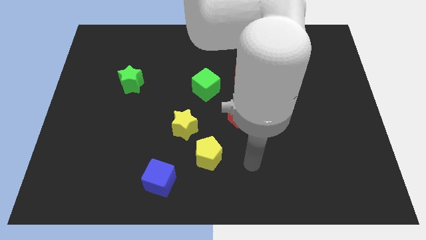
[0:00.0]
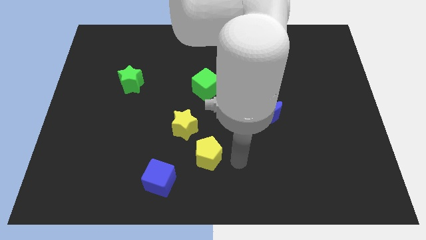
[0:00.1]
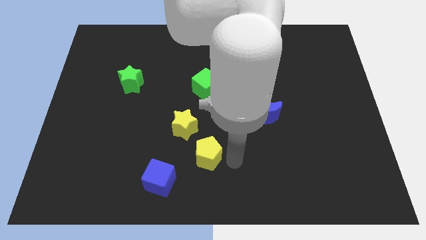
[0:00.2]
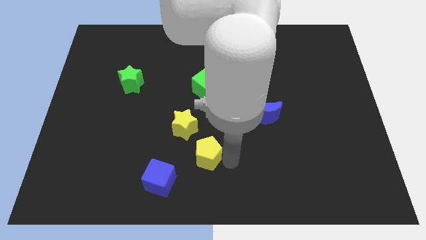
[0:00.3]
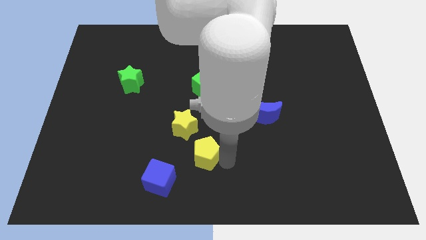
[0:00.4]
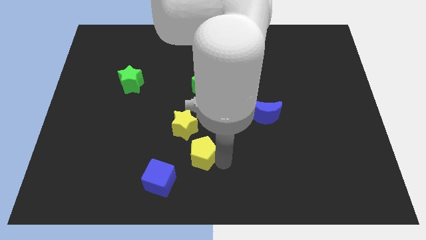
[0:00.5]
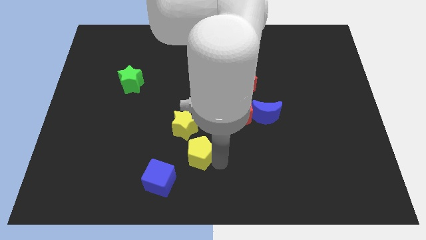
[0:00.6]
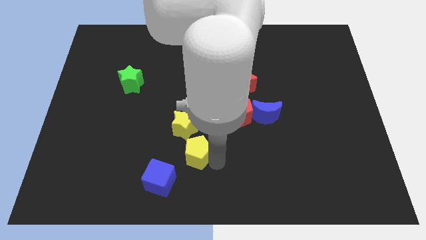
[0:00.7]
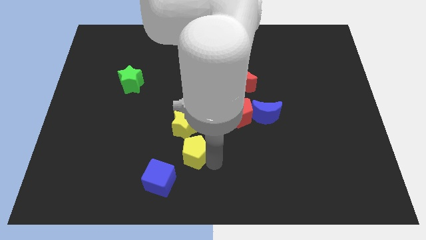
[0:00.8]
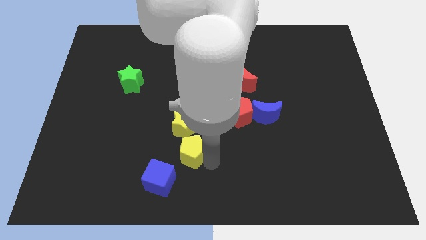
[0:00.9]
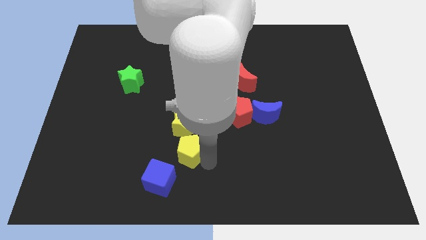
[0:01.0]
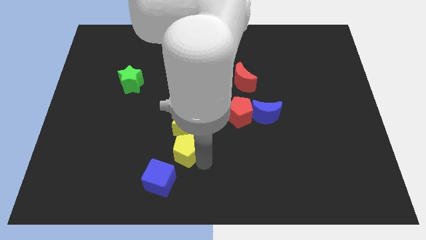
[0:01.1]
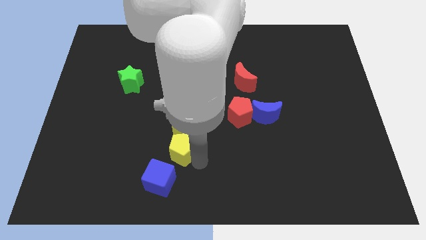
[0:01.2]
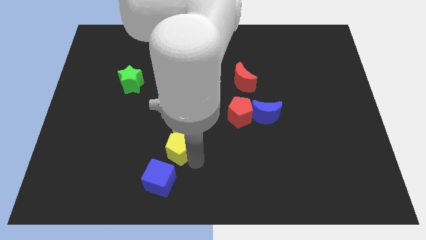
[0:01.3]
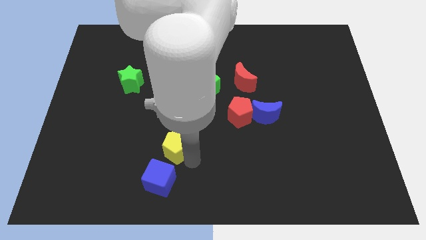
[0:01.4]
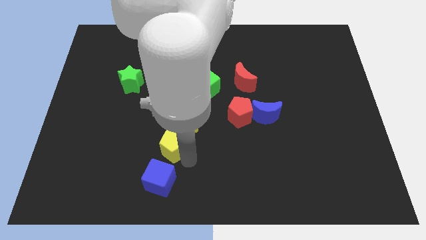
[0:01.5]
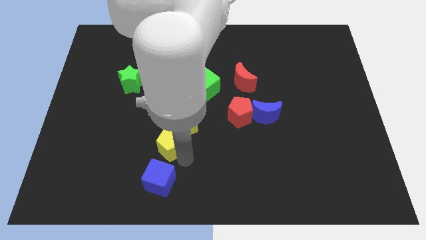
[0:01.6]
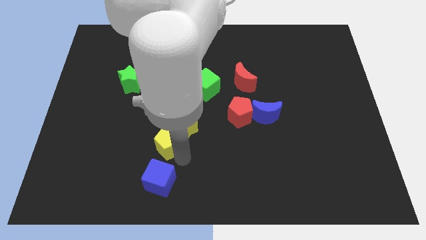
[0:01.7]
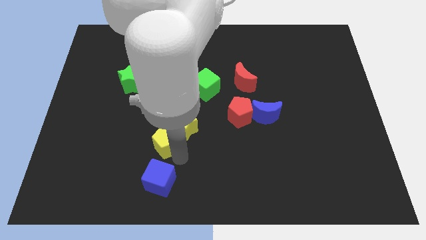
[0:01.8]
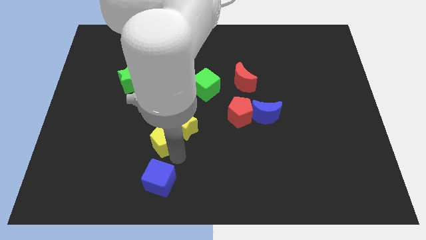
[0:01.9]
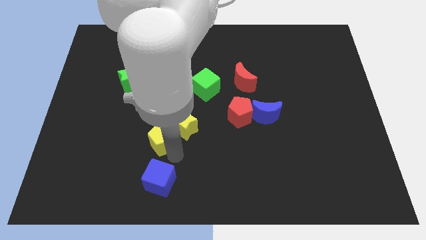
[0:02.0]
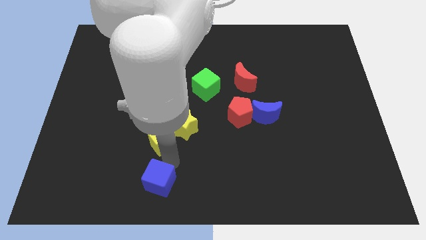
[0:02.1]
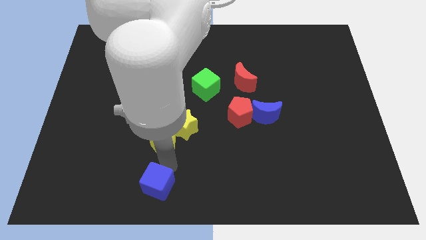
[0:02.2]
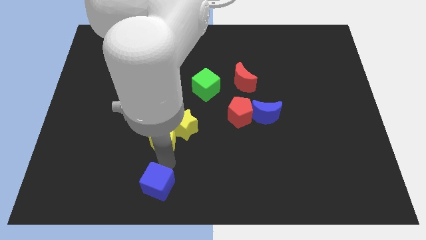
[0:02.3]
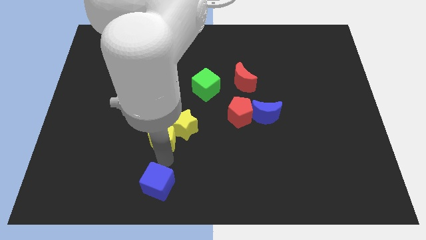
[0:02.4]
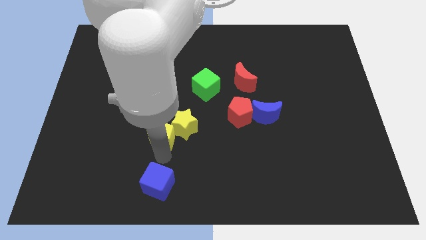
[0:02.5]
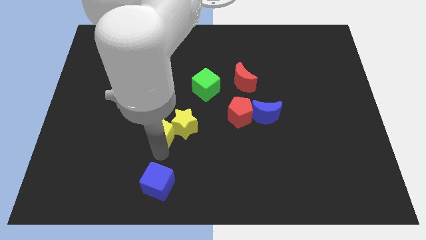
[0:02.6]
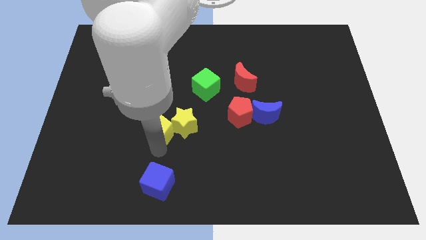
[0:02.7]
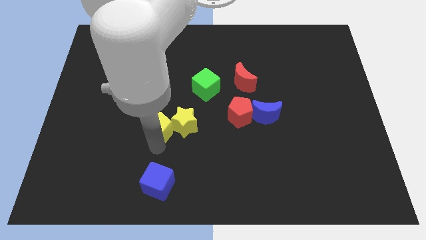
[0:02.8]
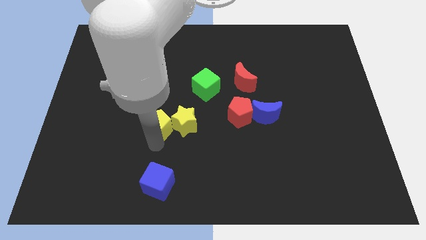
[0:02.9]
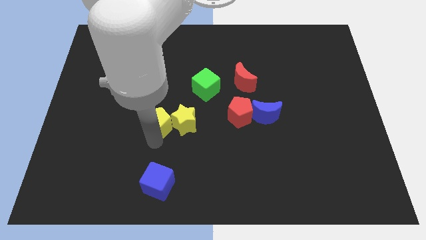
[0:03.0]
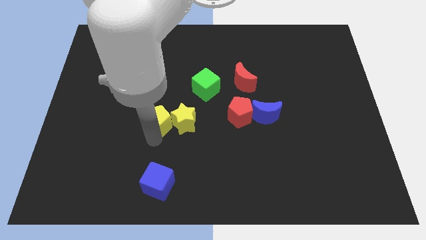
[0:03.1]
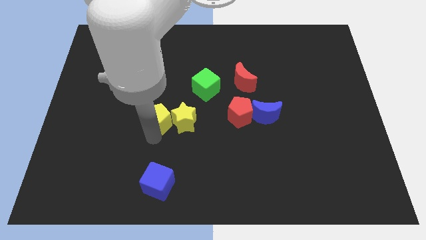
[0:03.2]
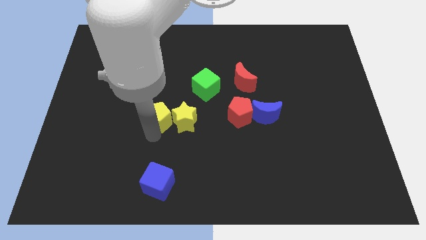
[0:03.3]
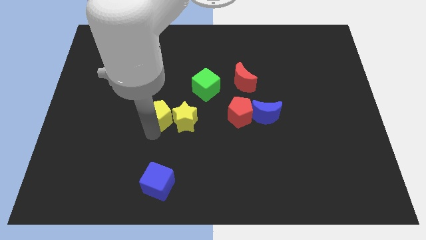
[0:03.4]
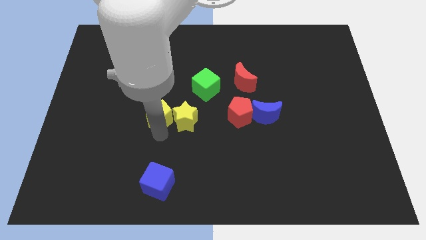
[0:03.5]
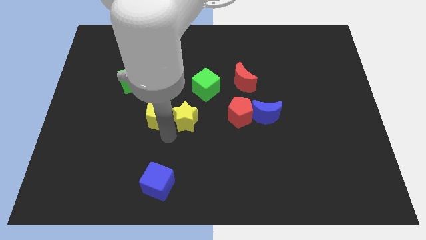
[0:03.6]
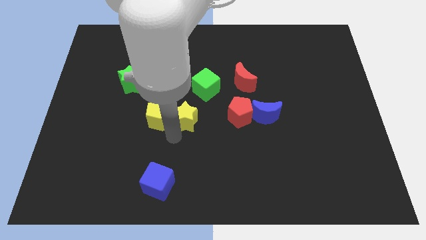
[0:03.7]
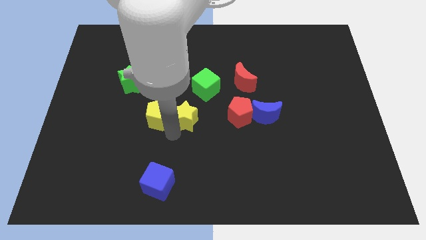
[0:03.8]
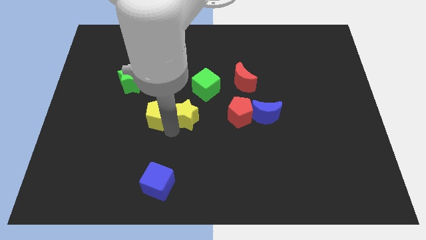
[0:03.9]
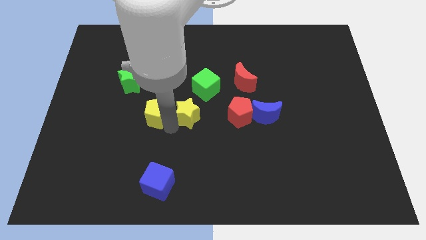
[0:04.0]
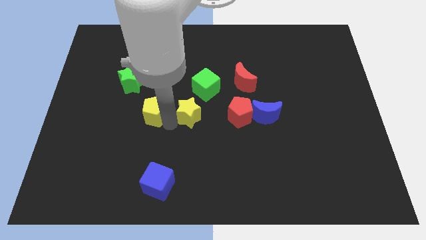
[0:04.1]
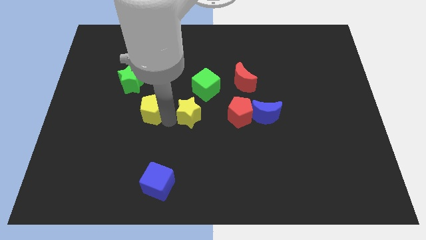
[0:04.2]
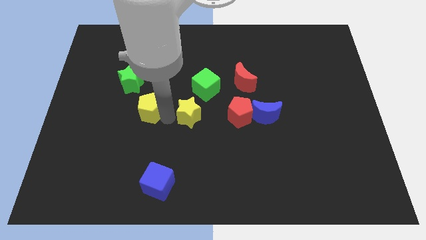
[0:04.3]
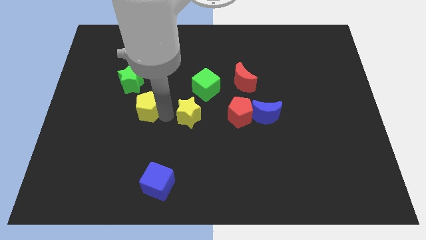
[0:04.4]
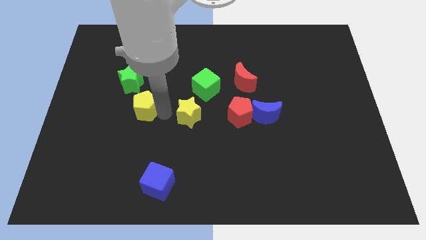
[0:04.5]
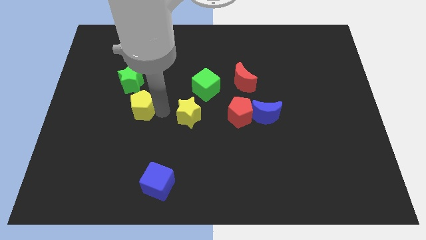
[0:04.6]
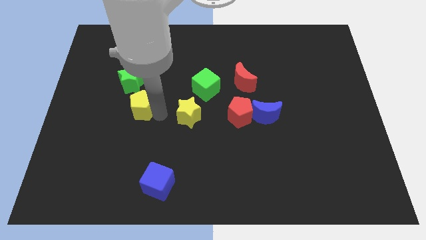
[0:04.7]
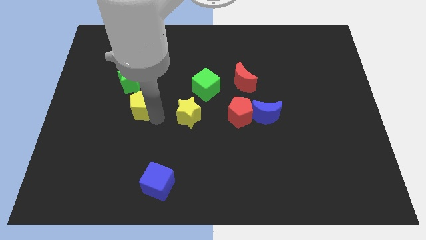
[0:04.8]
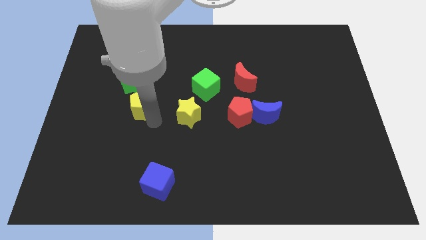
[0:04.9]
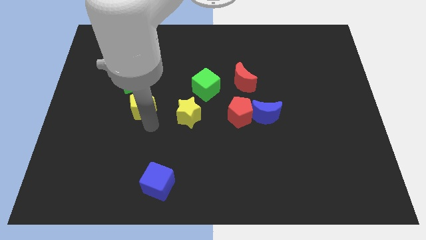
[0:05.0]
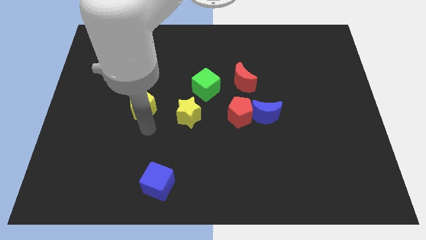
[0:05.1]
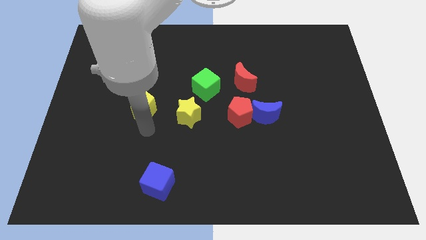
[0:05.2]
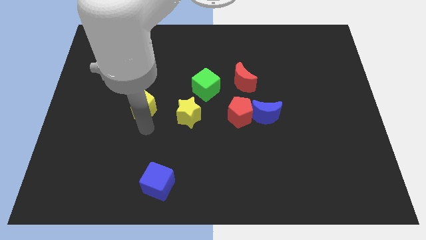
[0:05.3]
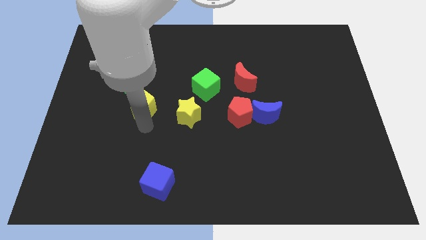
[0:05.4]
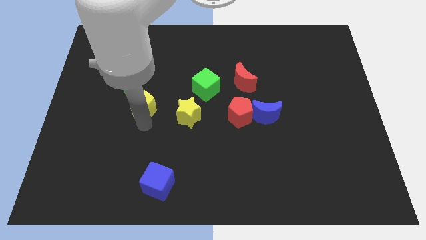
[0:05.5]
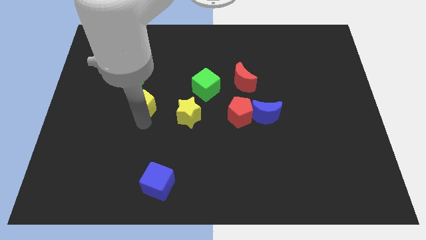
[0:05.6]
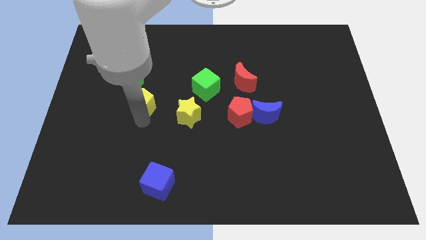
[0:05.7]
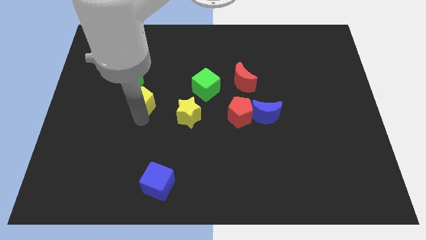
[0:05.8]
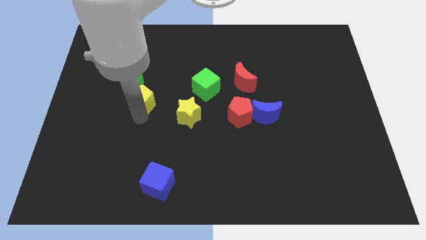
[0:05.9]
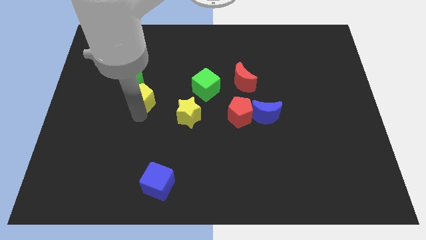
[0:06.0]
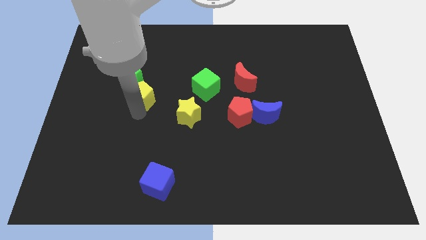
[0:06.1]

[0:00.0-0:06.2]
push the yellow pentagon to the green star
